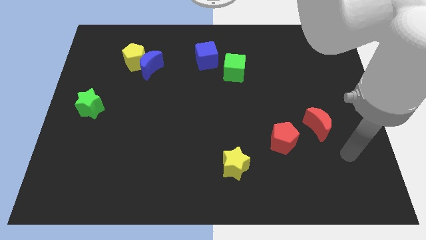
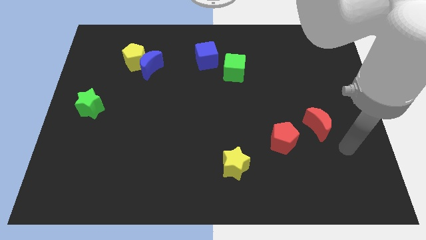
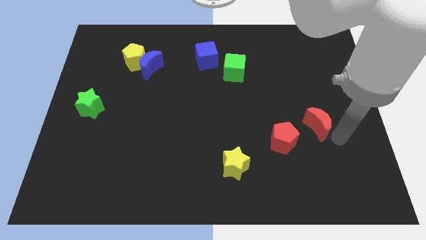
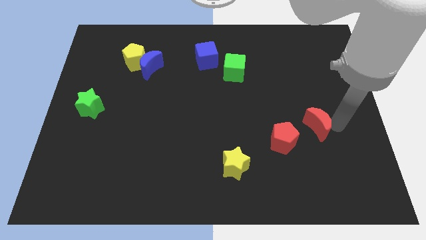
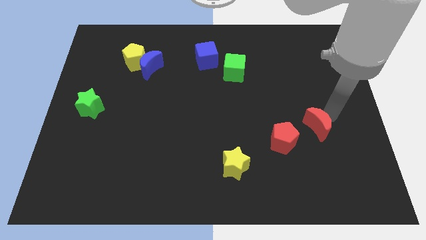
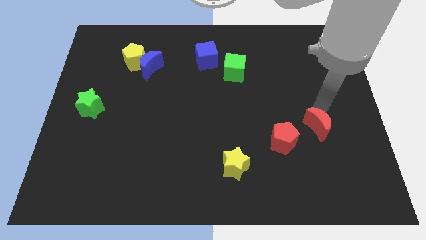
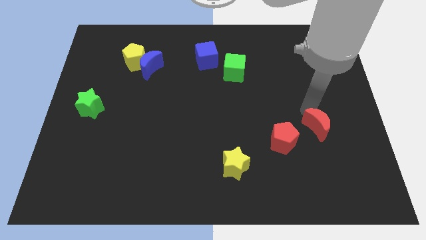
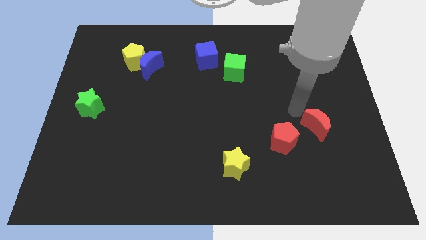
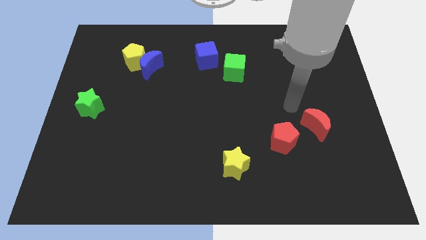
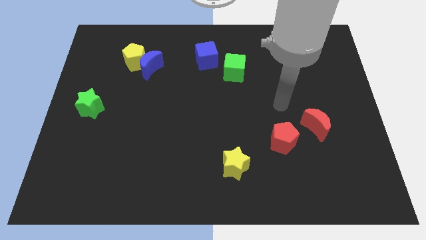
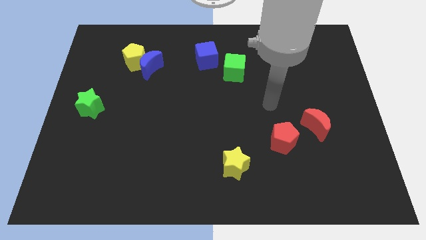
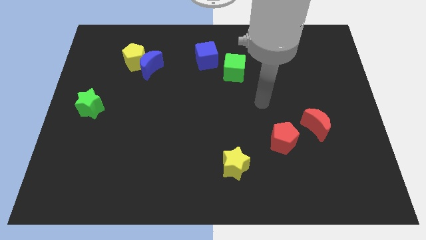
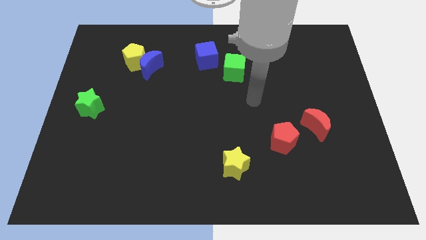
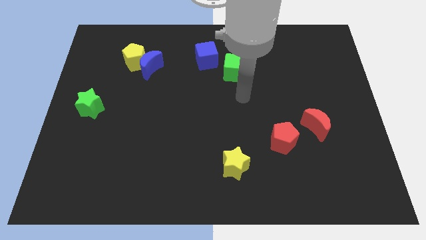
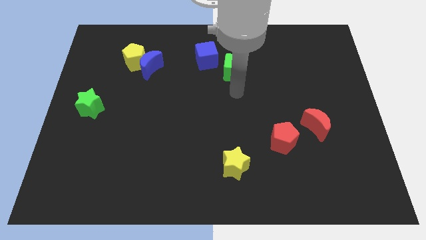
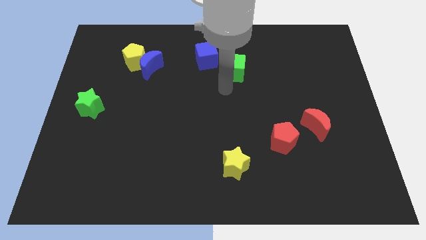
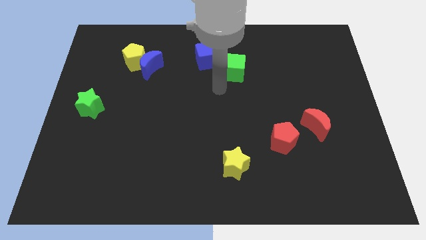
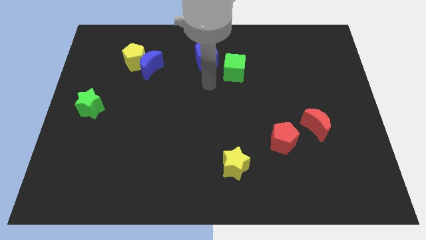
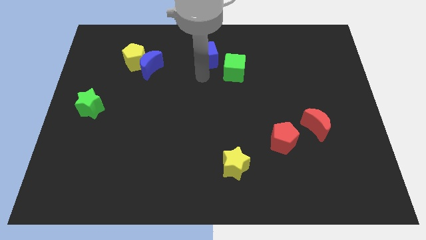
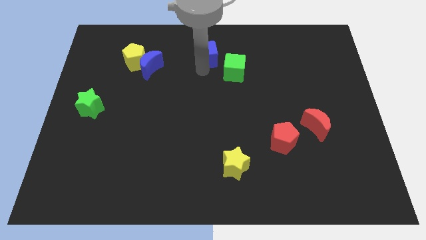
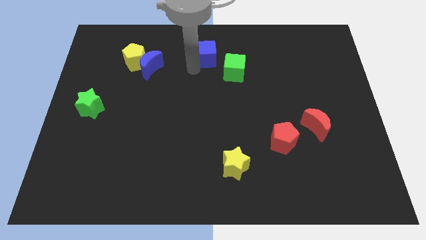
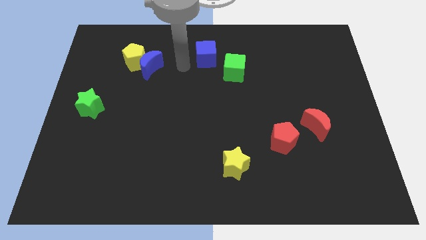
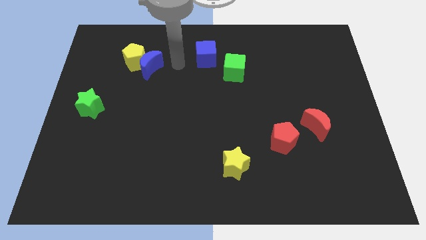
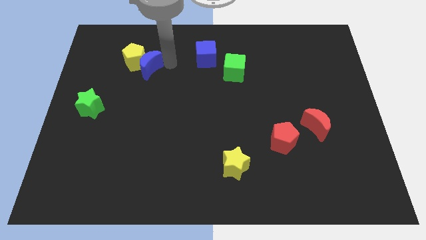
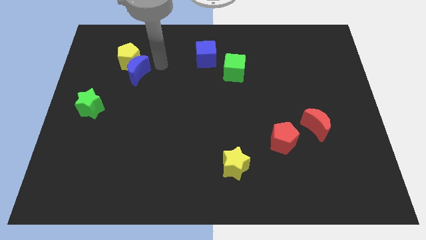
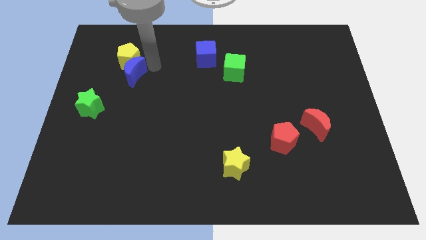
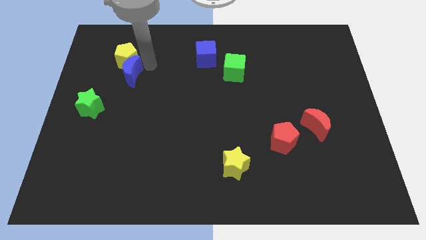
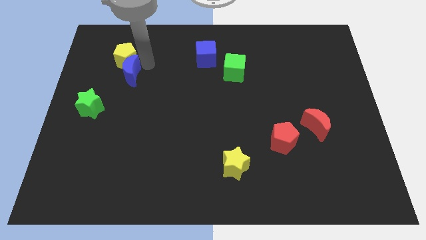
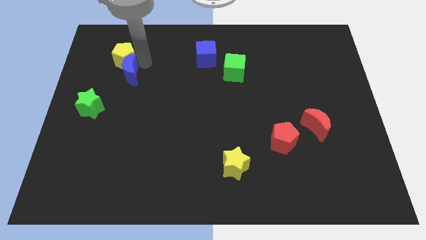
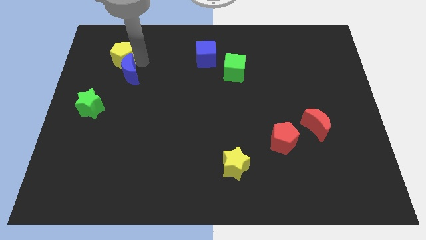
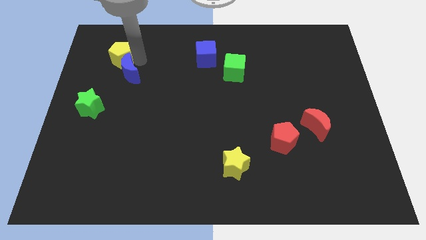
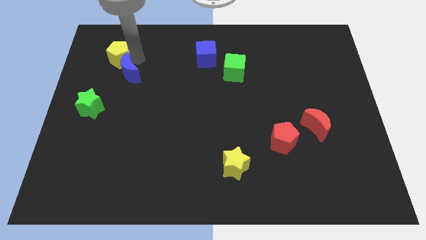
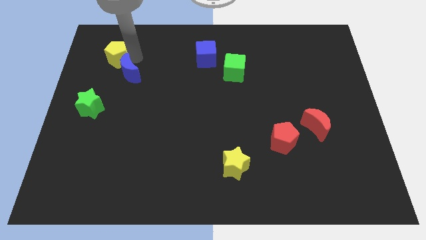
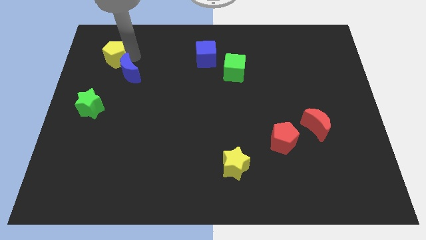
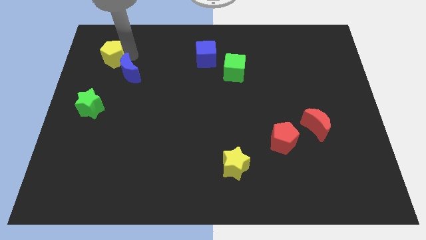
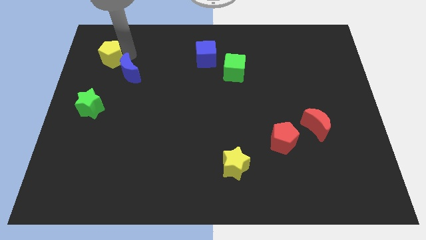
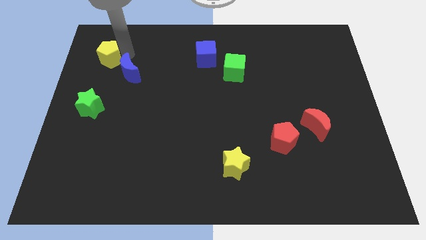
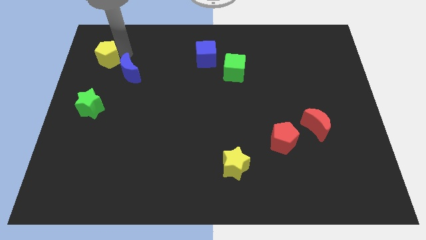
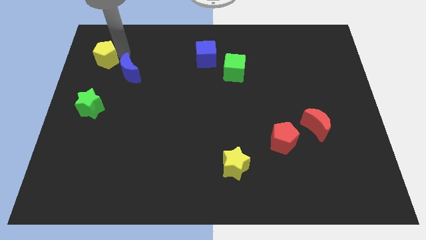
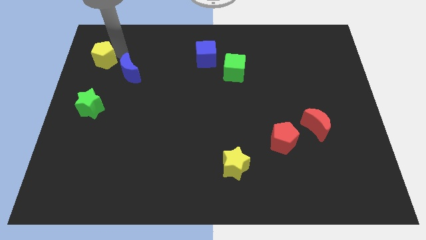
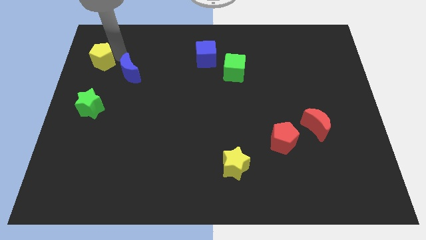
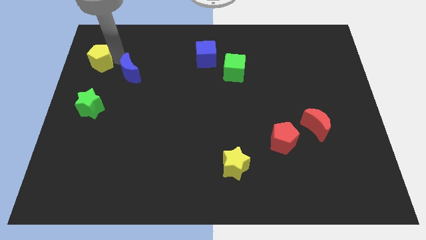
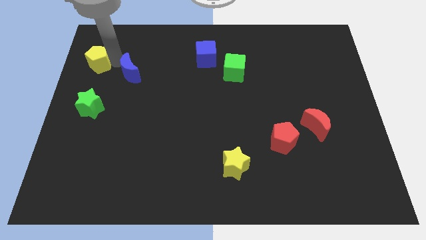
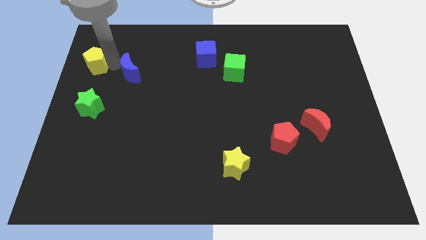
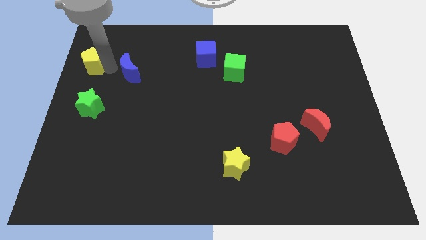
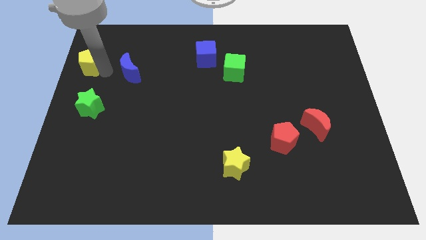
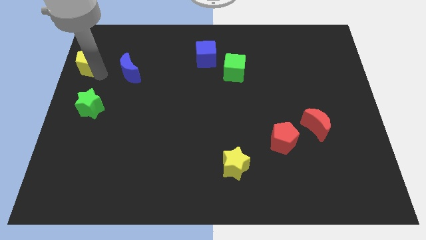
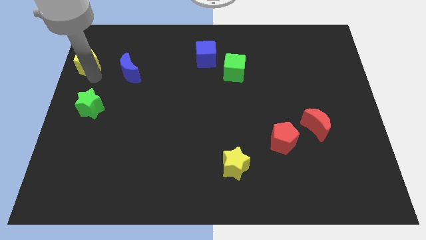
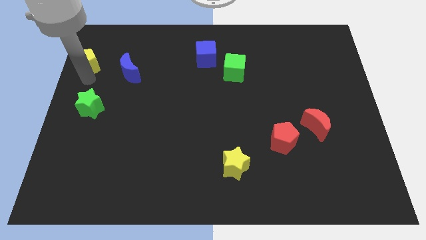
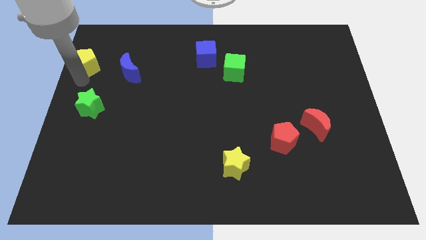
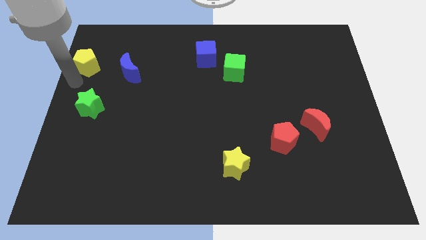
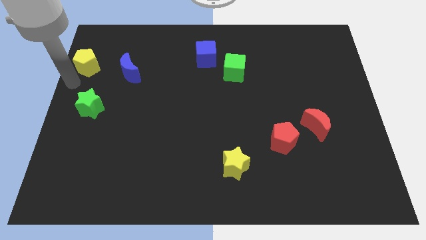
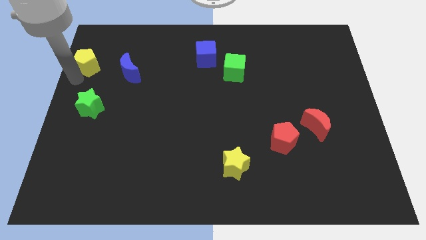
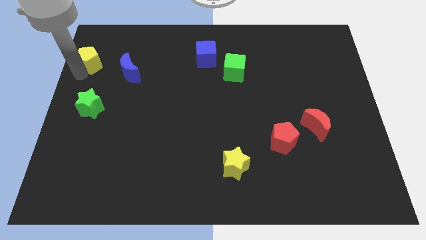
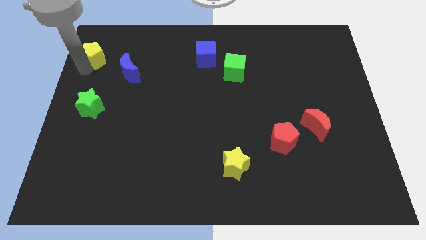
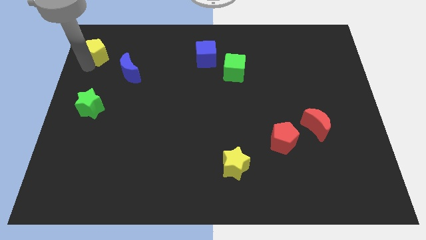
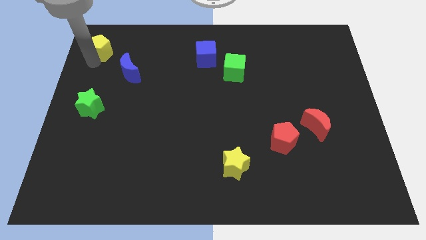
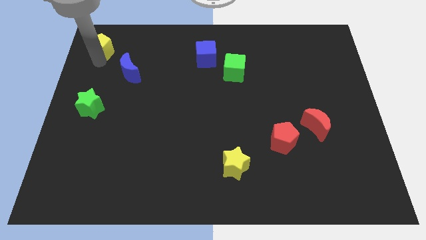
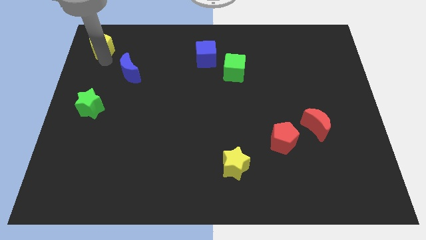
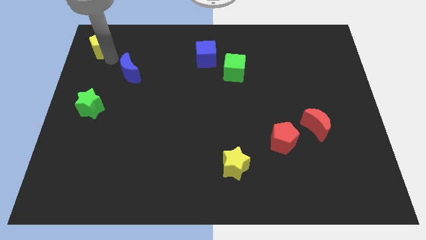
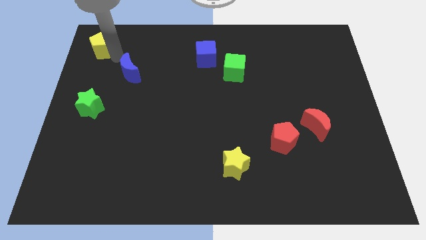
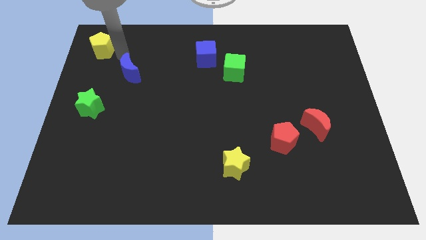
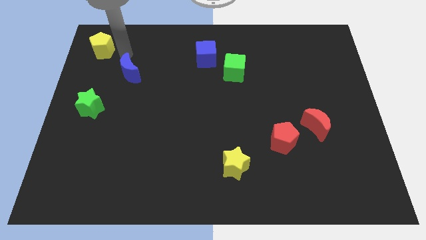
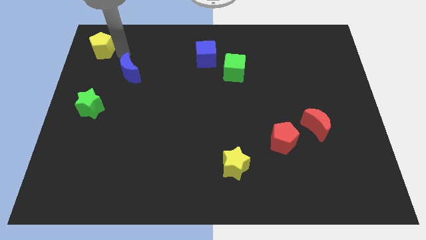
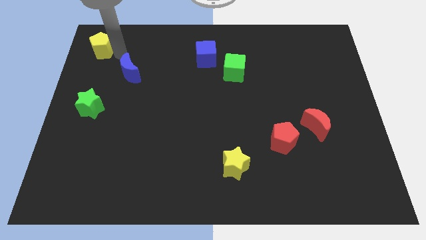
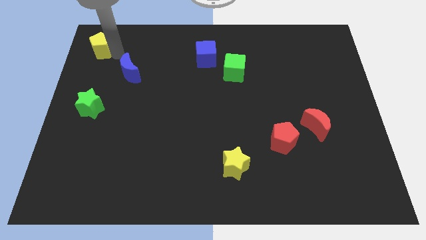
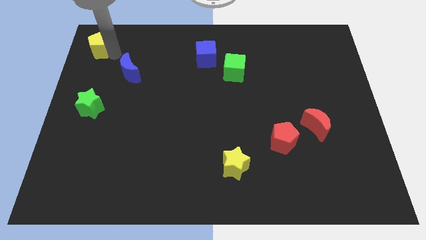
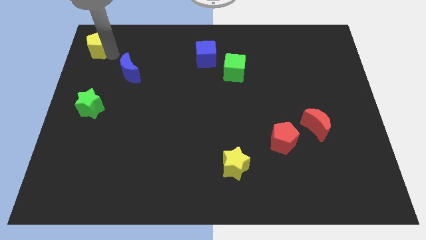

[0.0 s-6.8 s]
move the yellow pentagon to the top left

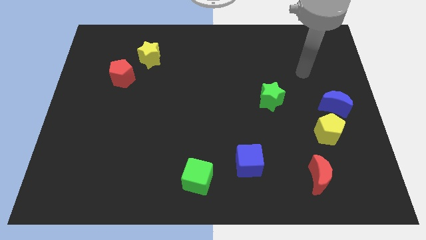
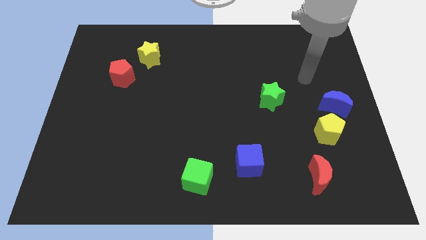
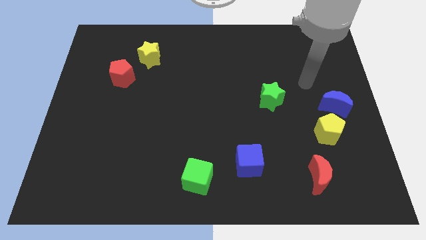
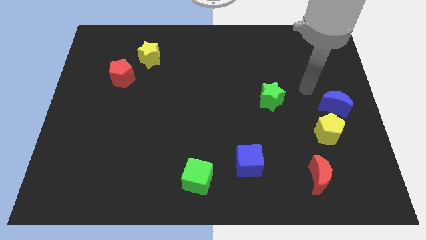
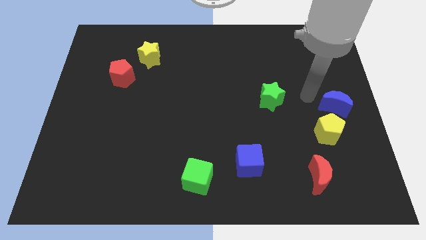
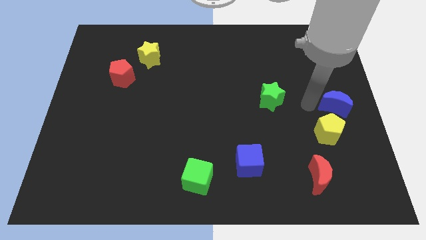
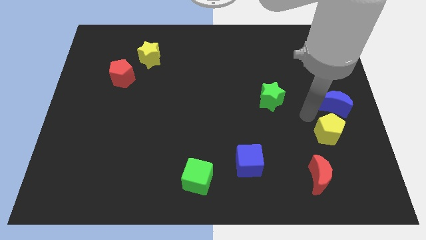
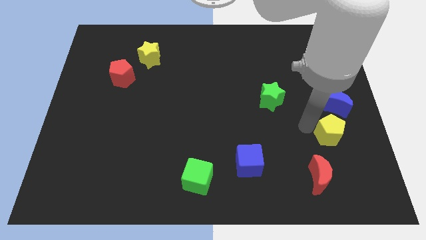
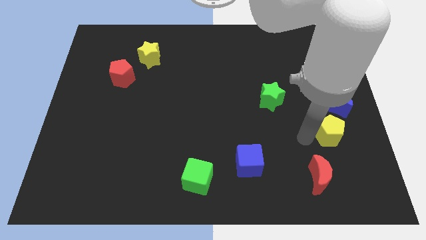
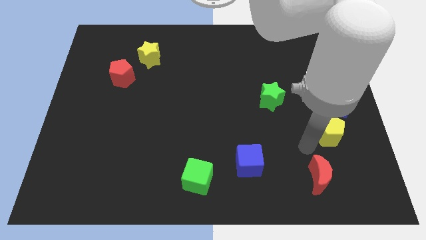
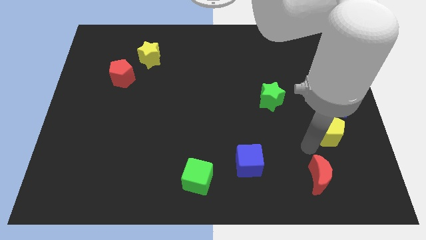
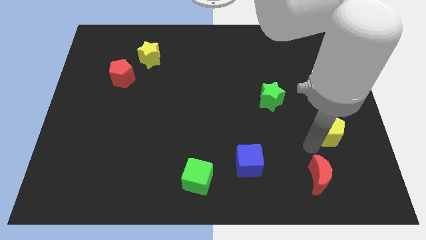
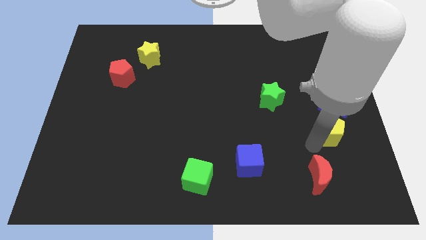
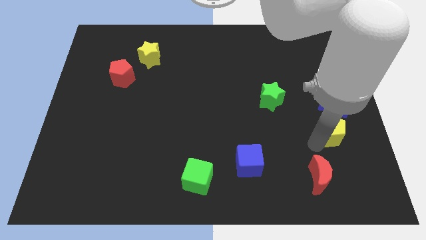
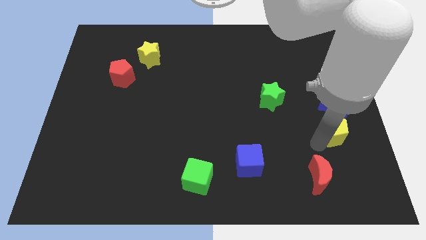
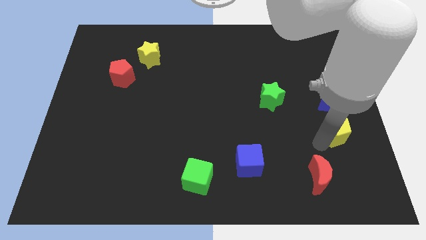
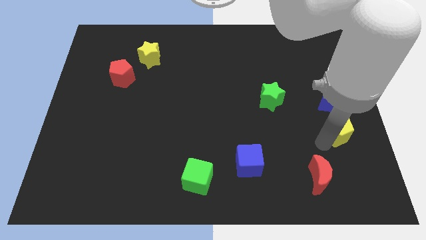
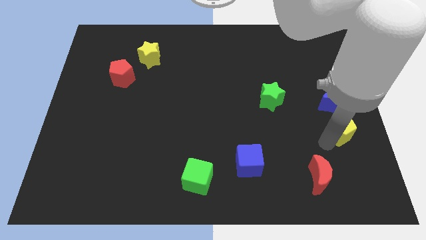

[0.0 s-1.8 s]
push the yellow pentagon to the right side
